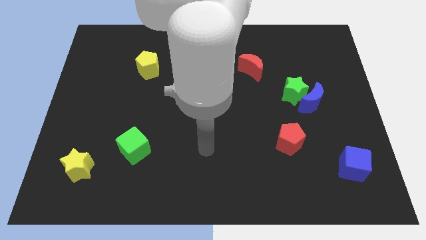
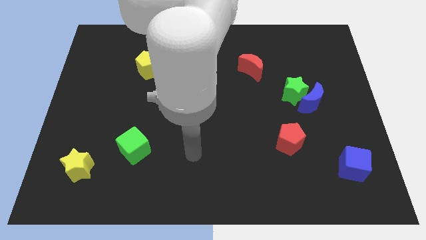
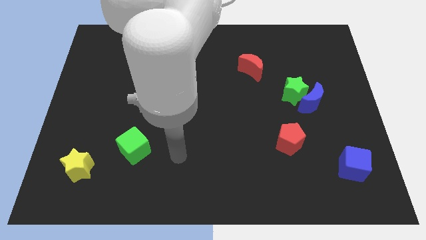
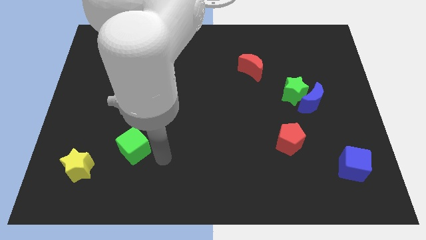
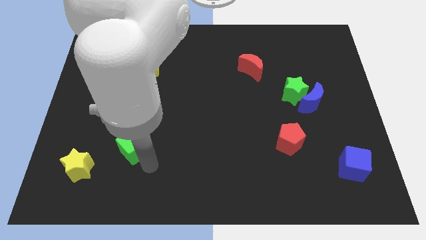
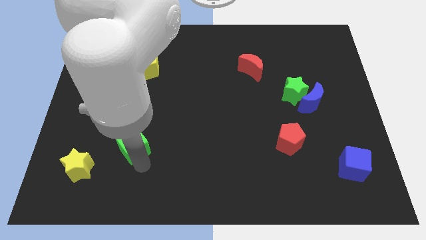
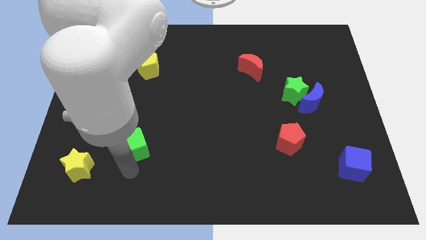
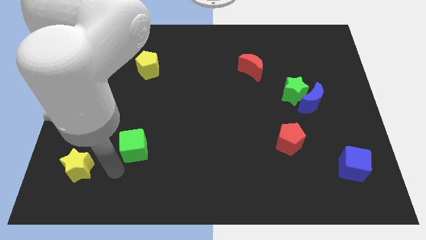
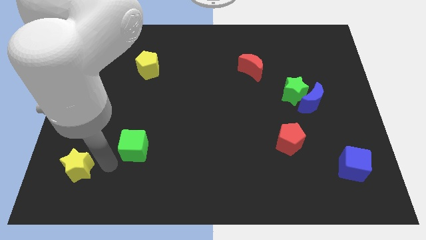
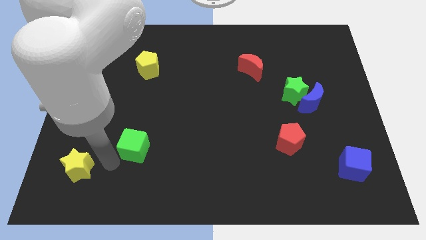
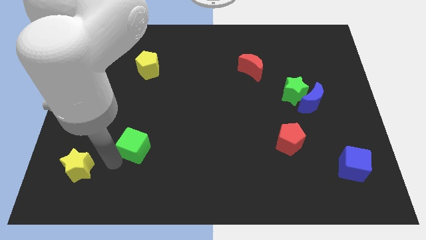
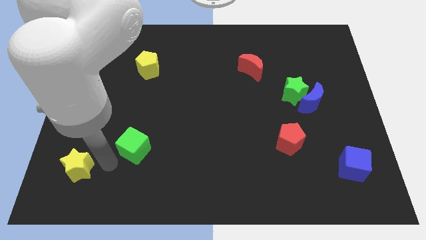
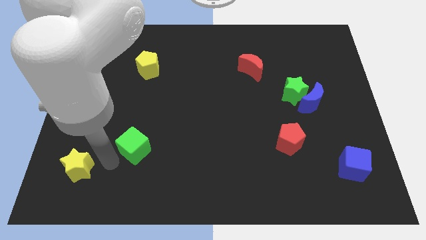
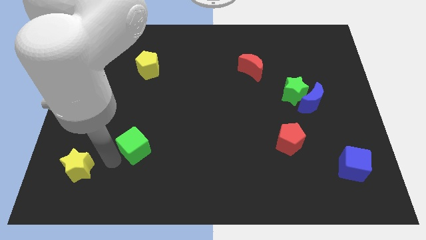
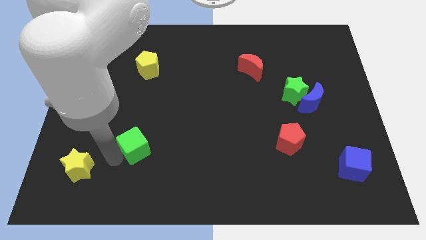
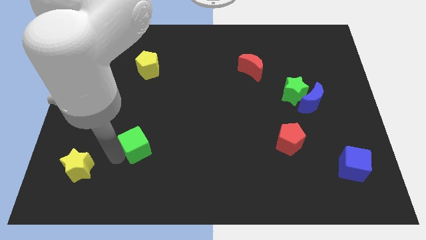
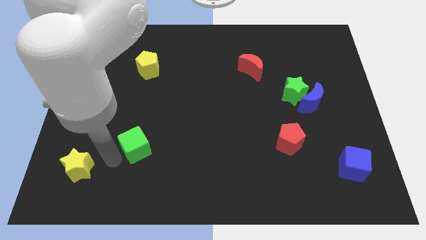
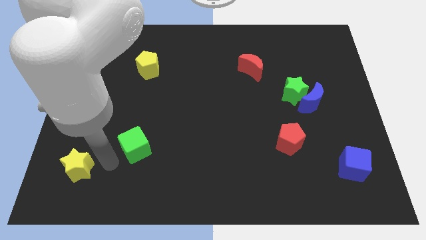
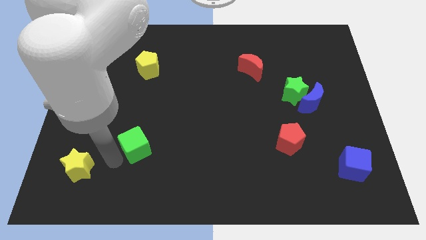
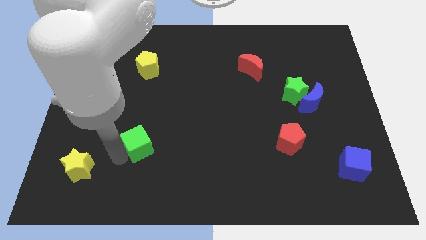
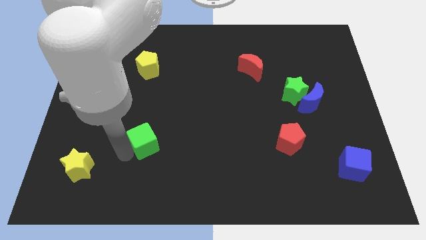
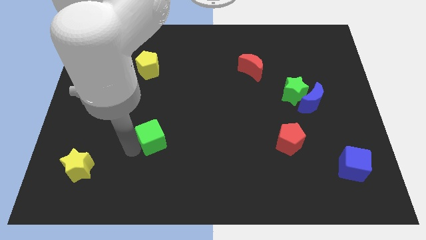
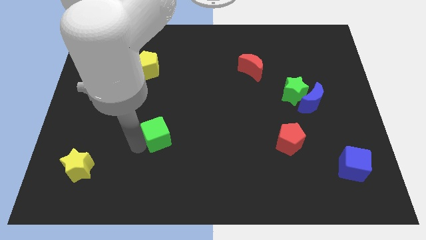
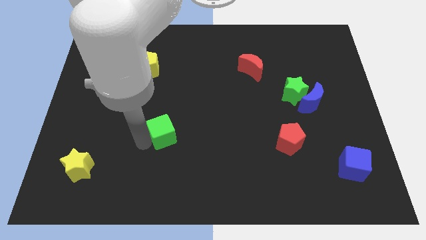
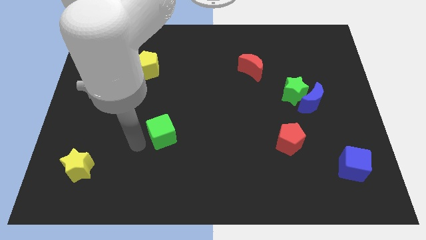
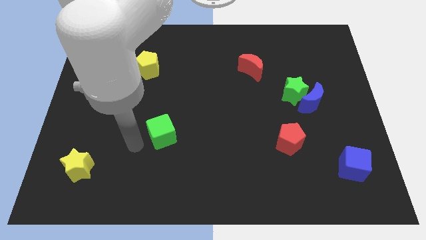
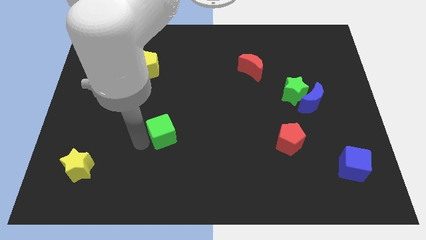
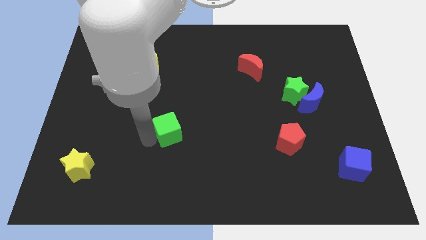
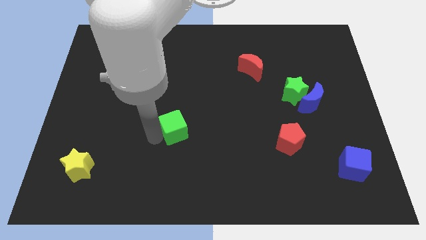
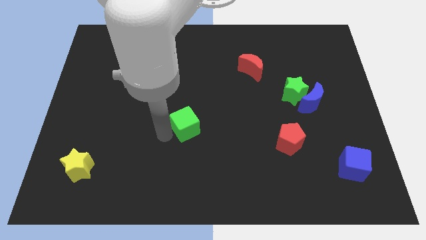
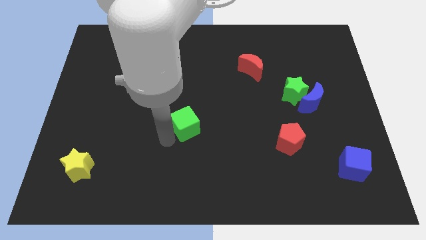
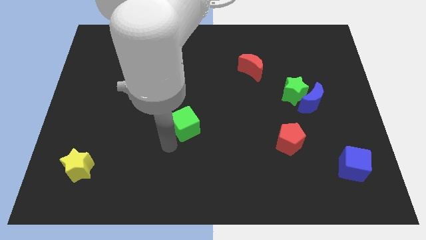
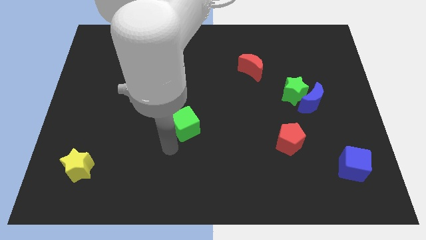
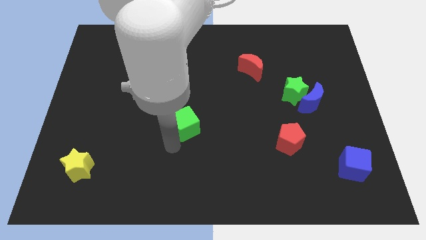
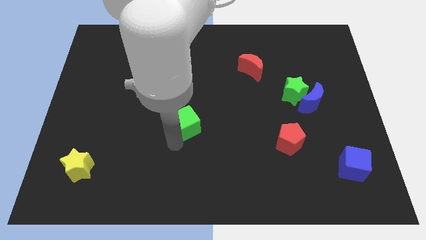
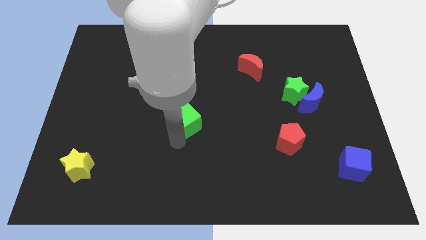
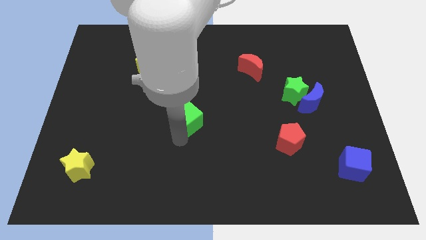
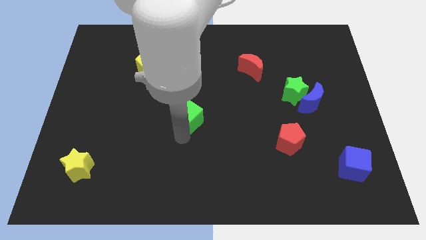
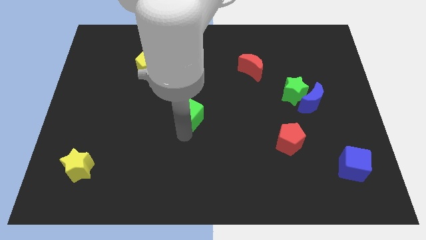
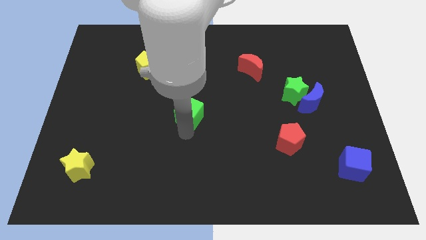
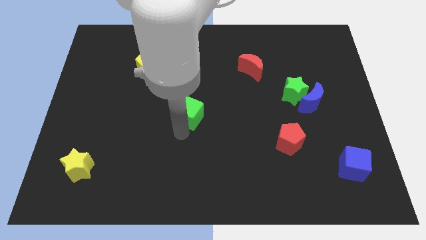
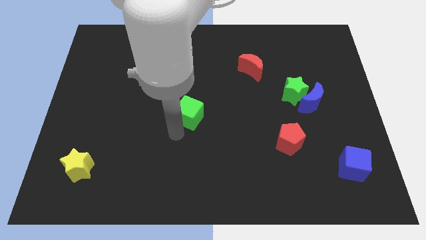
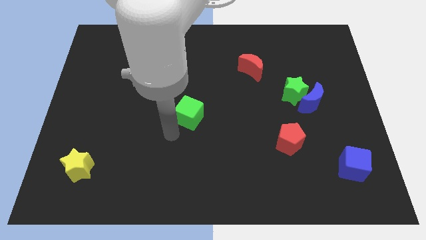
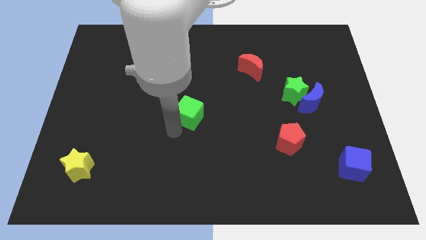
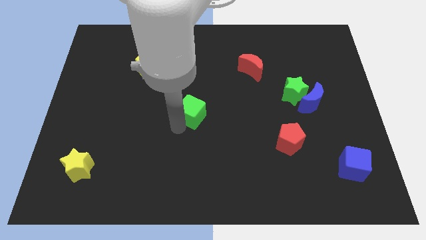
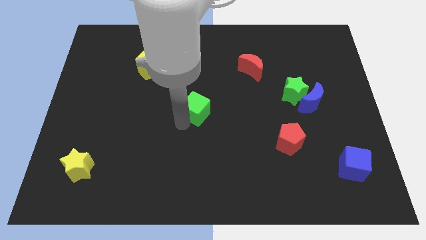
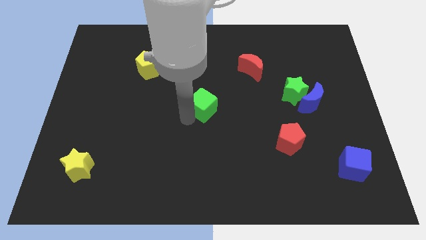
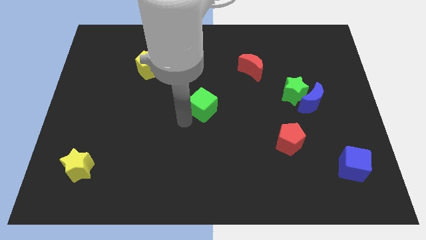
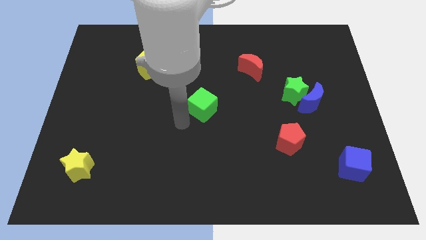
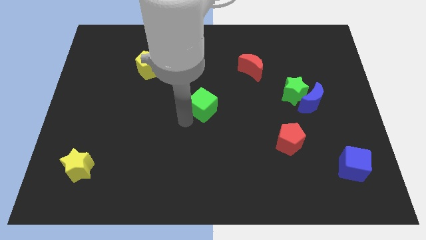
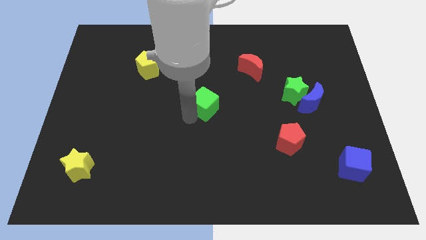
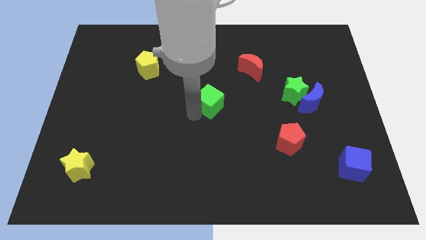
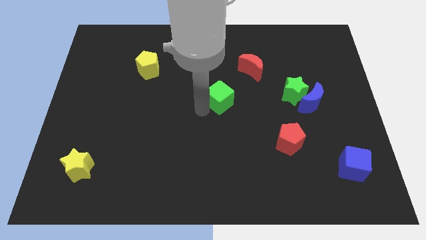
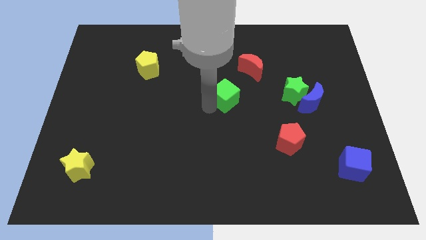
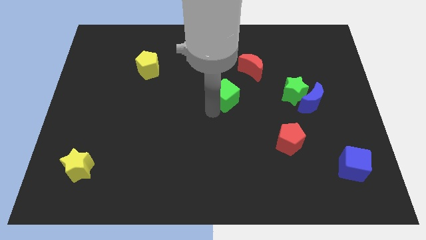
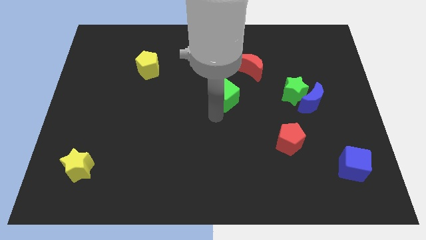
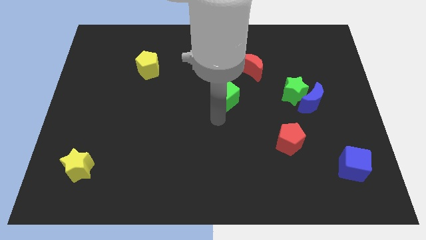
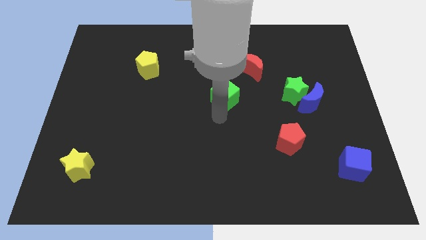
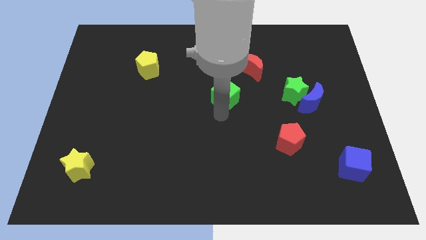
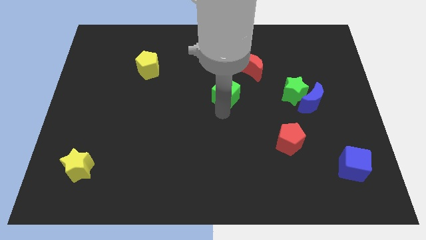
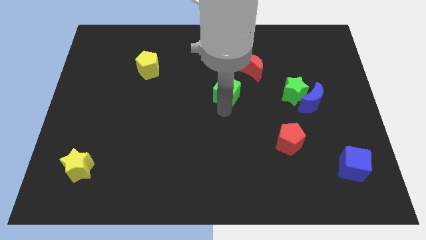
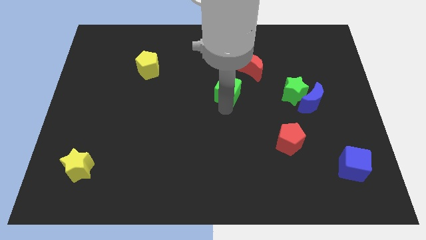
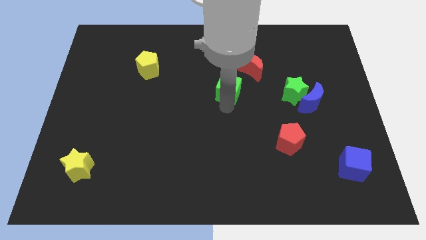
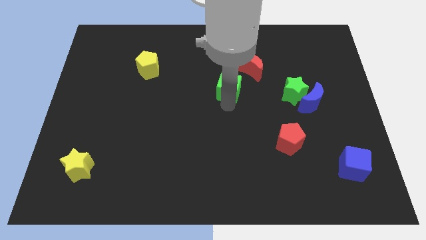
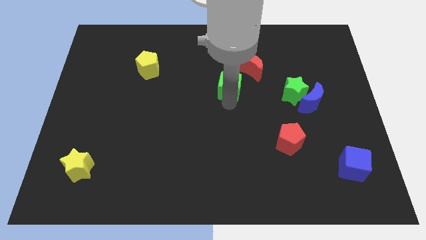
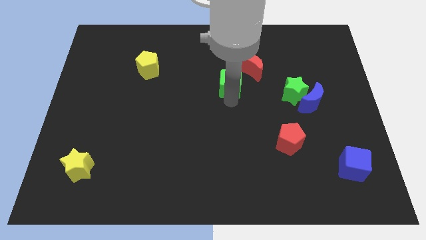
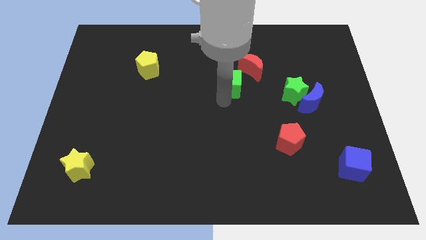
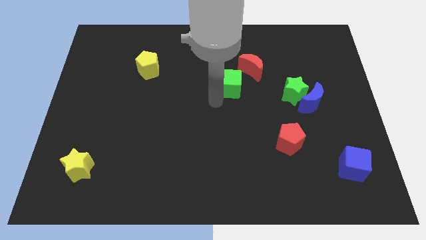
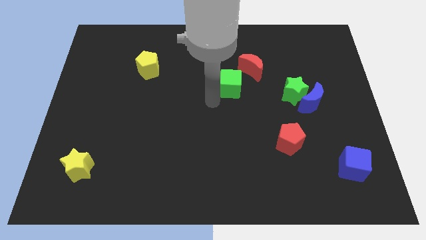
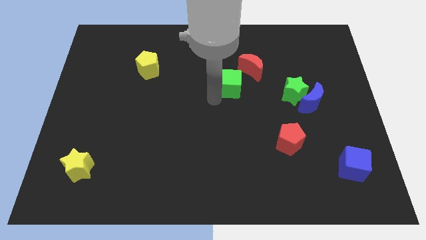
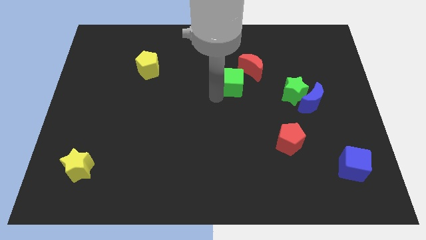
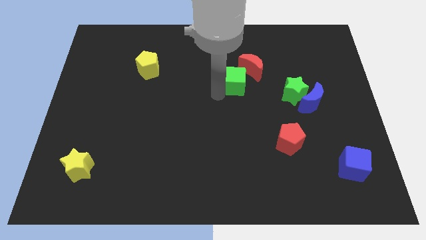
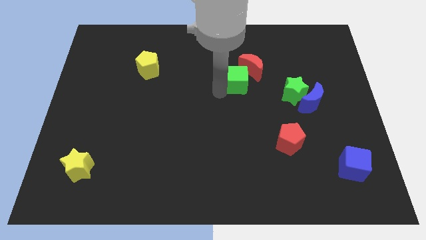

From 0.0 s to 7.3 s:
put the green cube close to the red moon
